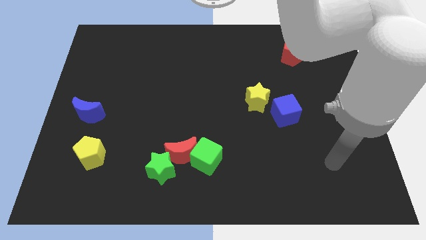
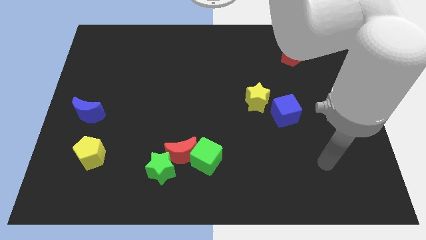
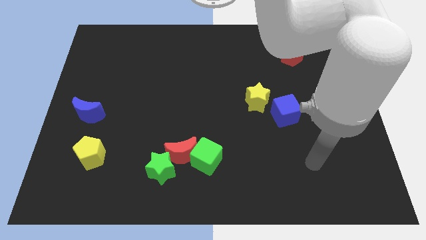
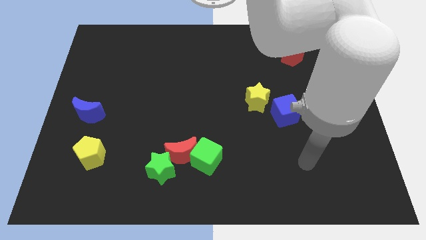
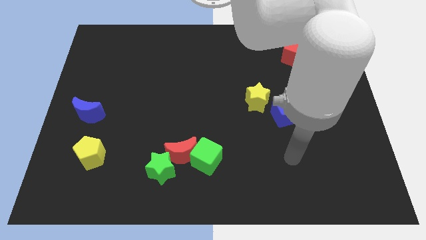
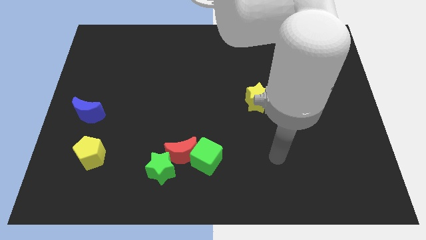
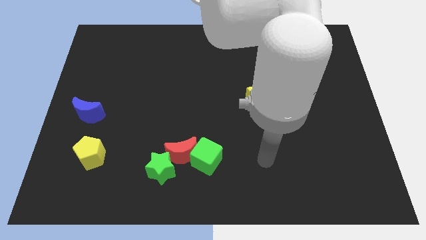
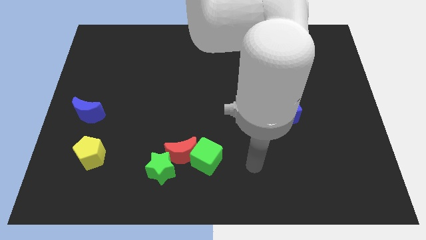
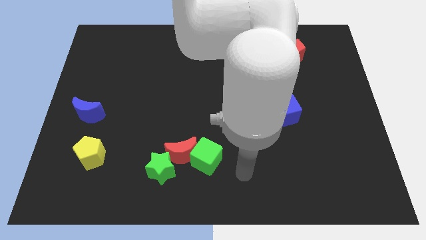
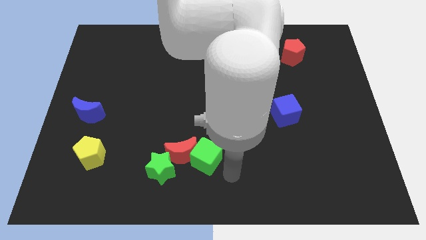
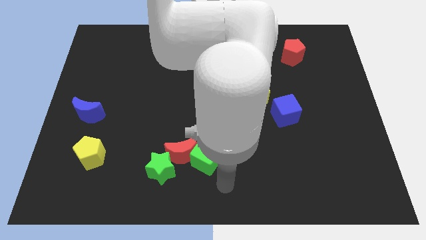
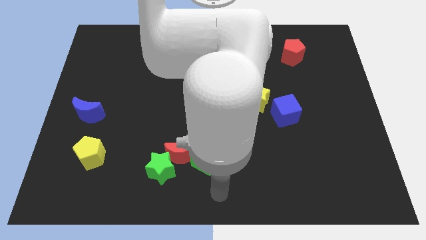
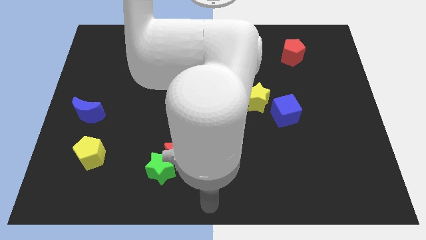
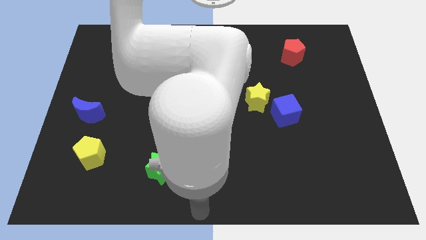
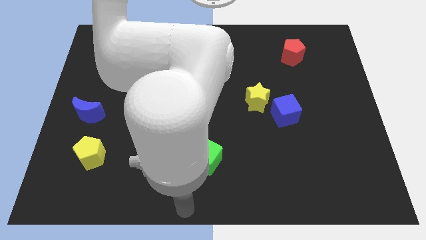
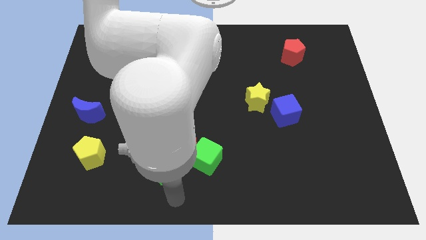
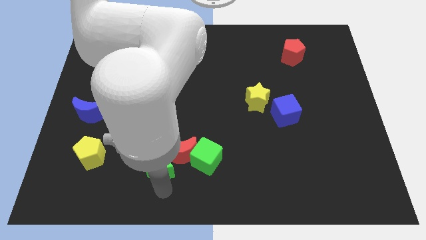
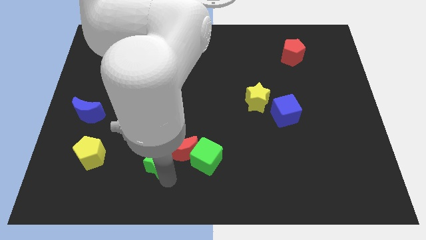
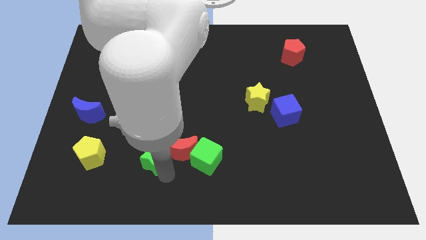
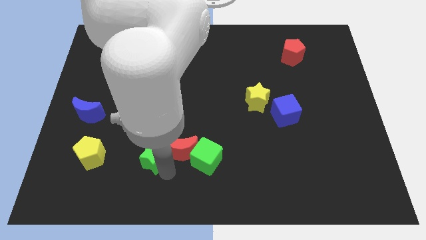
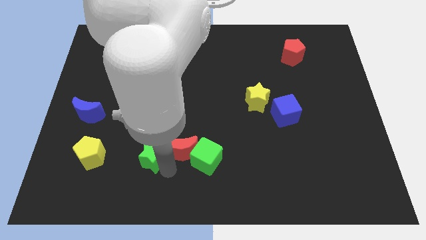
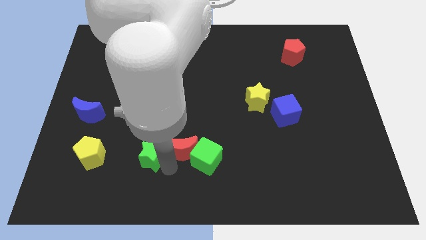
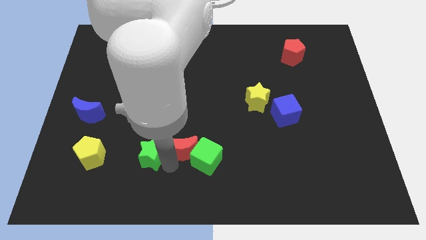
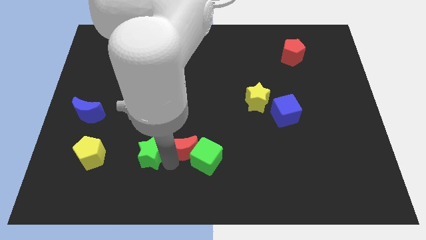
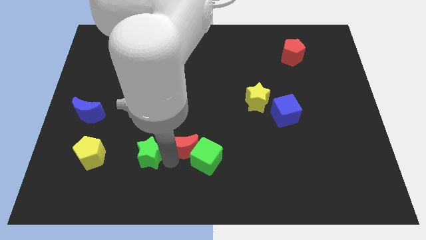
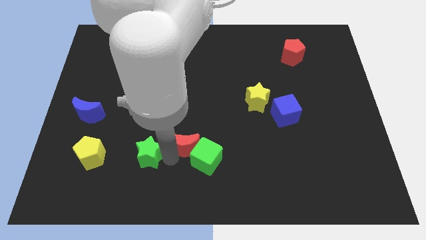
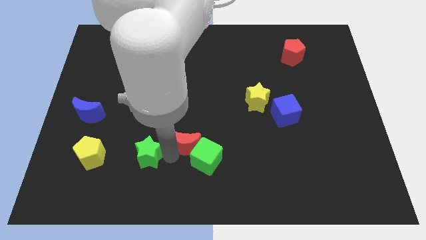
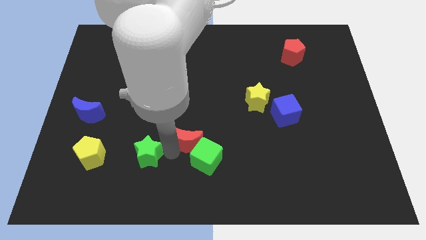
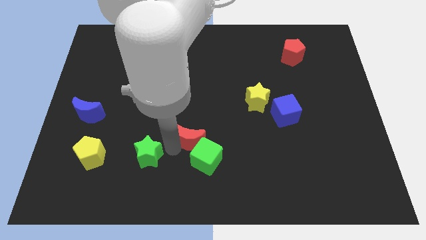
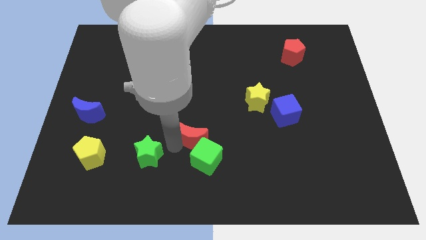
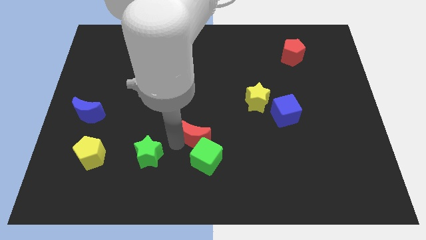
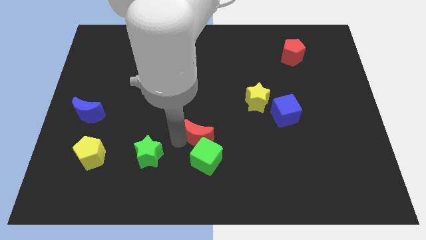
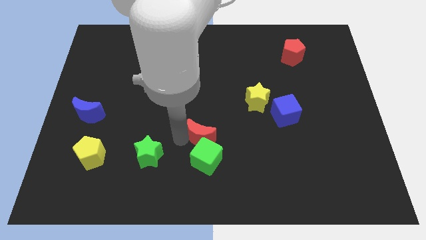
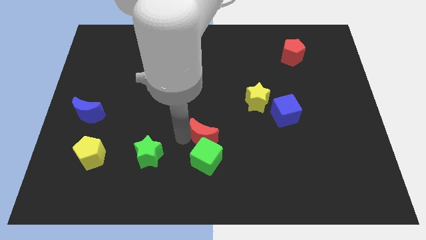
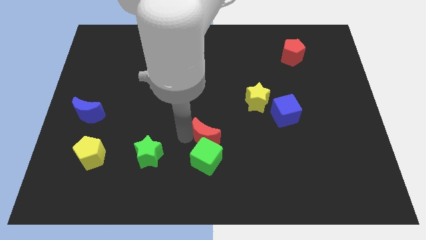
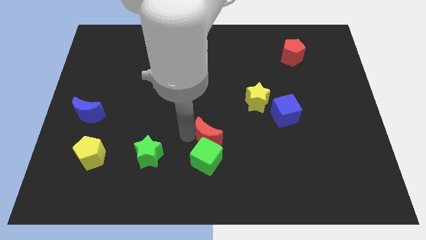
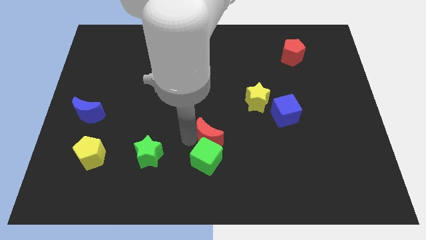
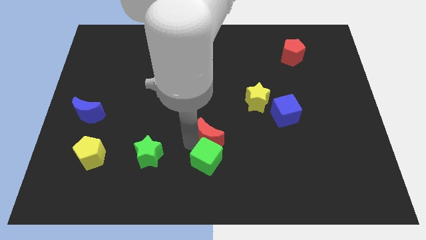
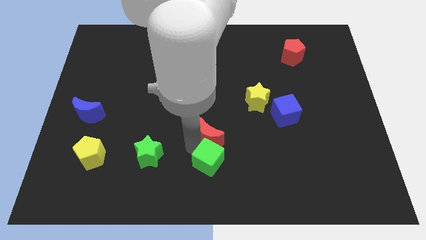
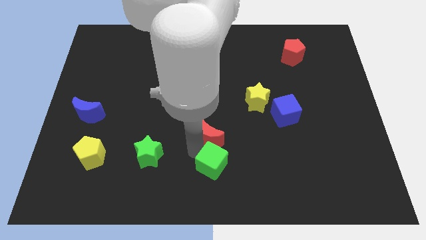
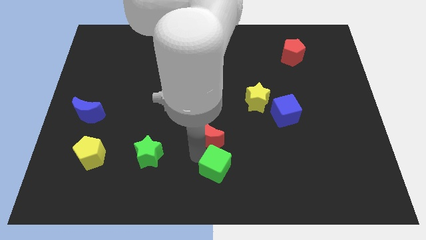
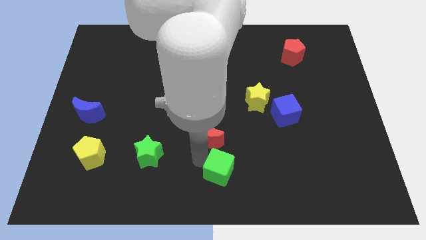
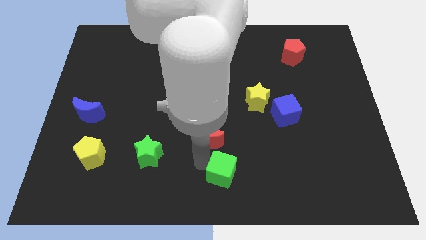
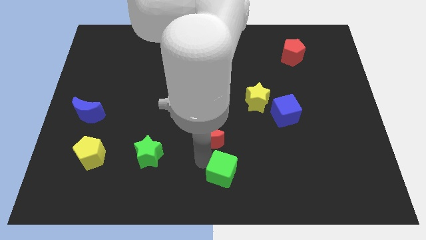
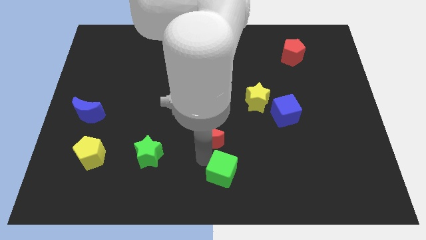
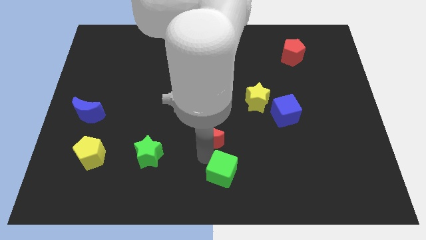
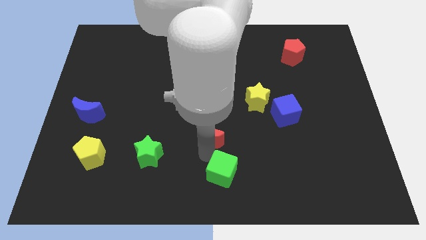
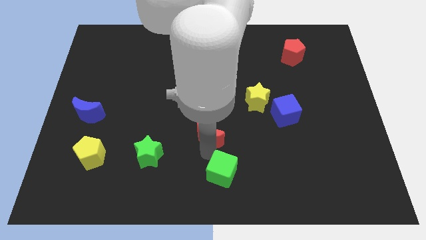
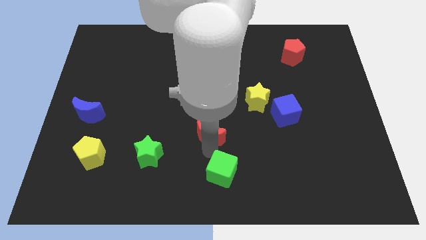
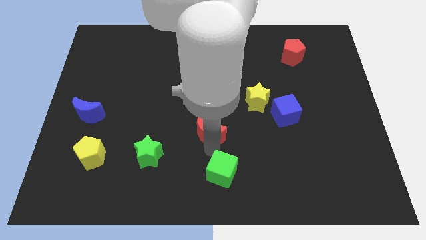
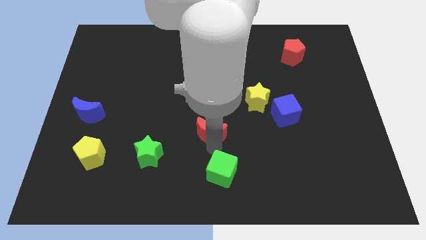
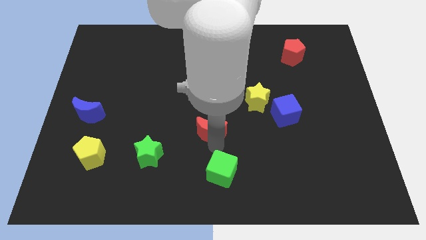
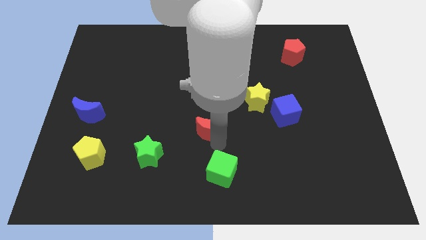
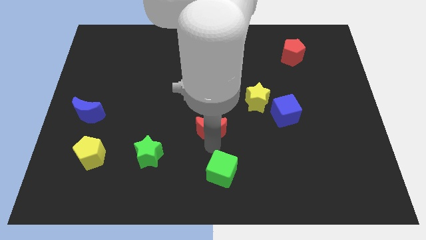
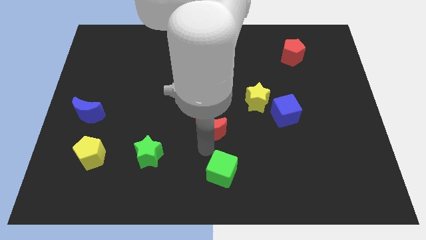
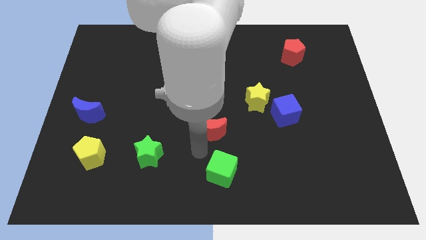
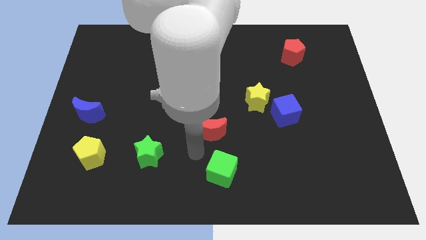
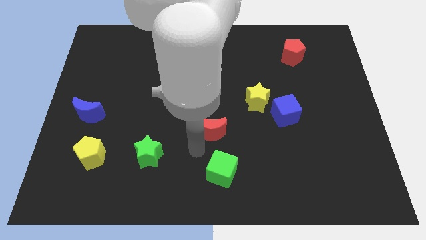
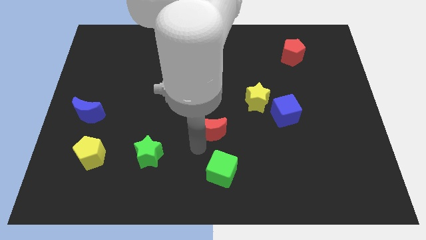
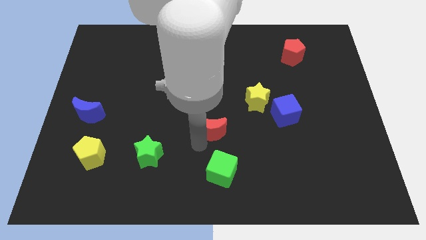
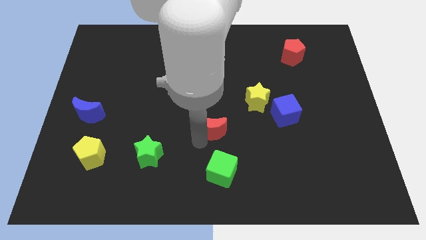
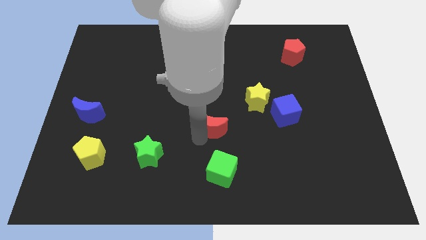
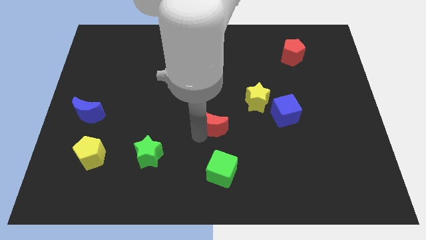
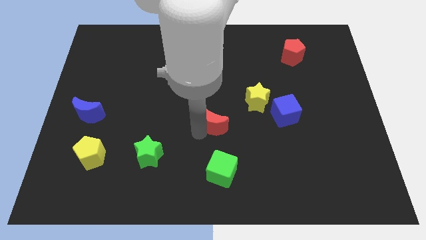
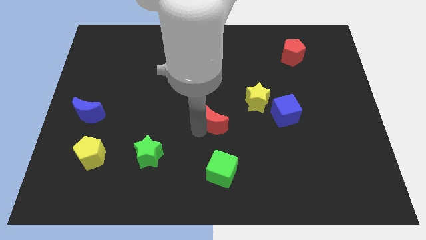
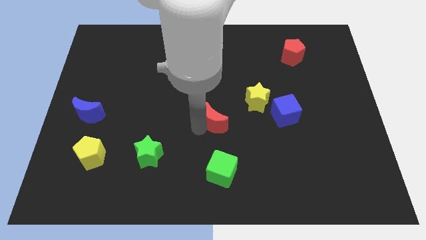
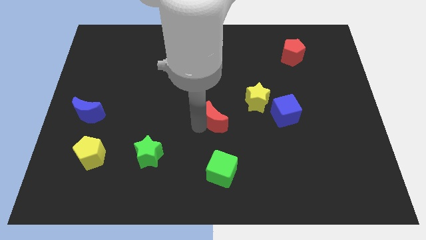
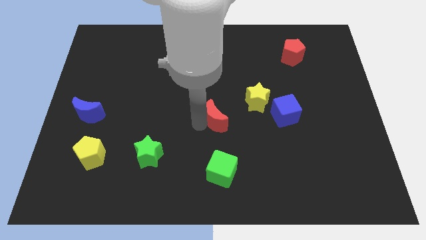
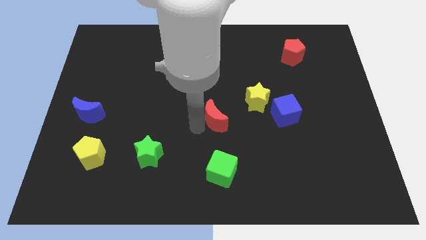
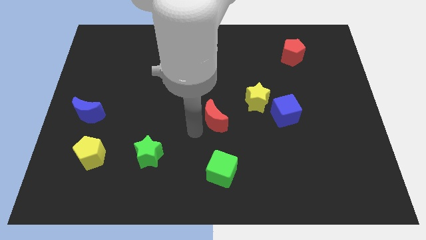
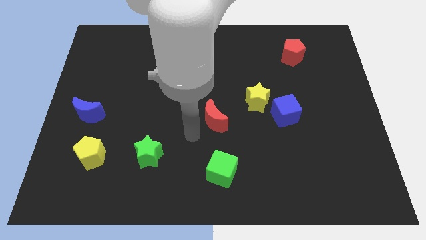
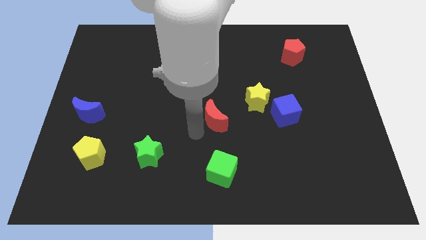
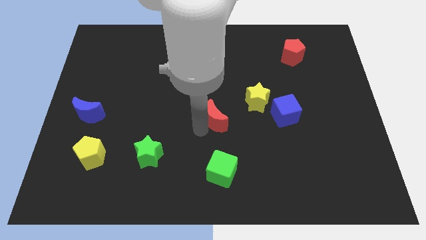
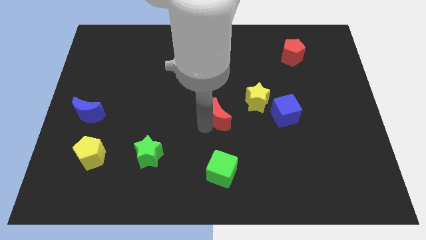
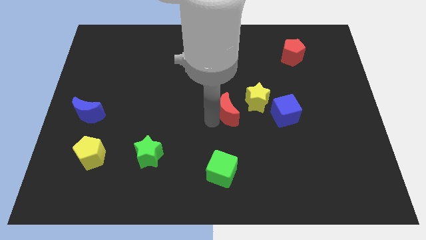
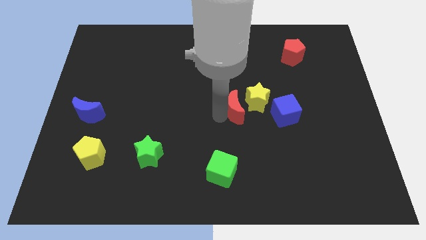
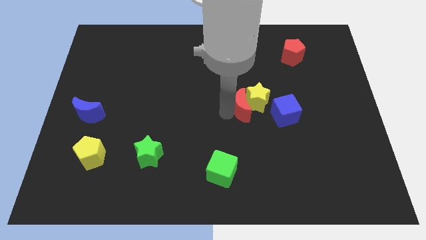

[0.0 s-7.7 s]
push the red moon close to the yellow star
